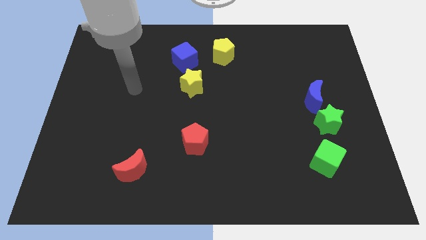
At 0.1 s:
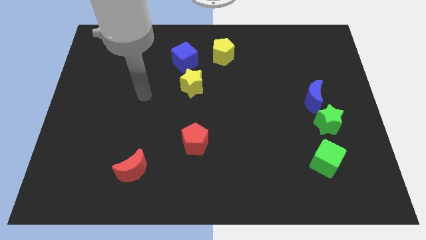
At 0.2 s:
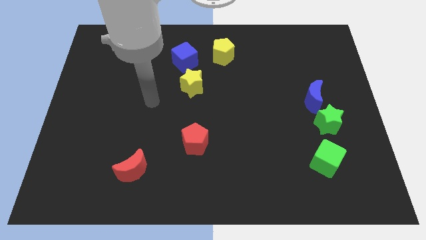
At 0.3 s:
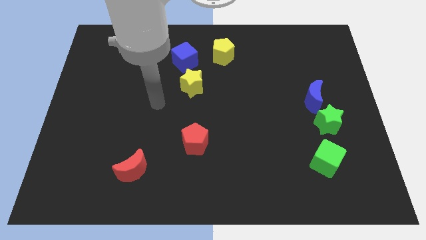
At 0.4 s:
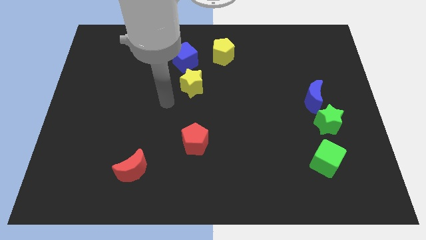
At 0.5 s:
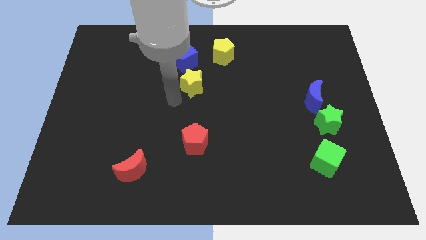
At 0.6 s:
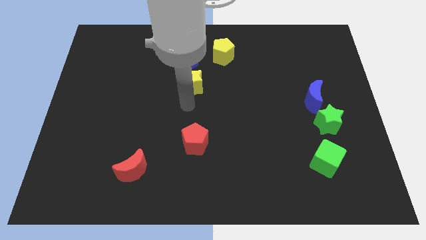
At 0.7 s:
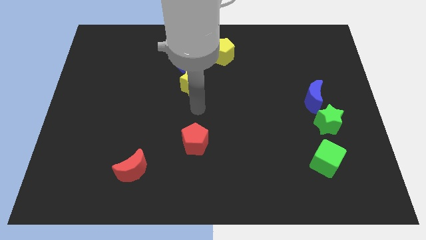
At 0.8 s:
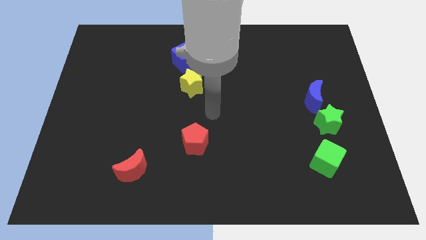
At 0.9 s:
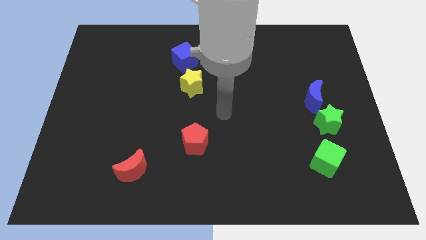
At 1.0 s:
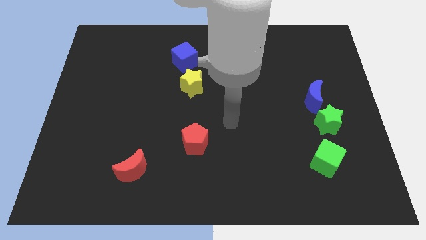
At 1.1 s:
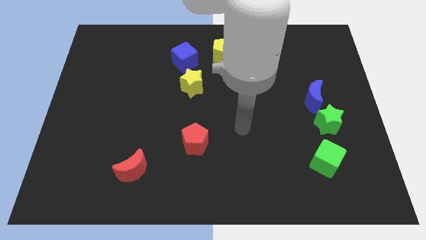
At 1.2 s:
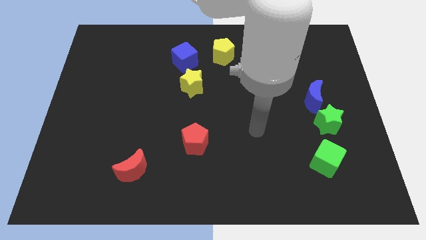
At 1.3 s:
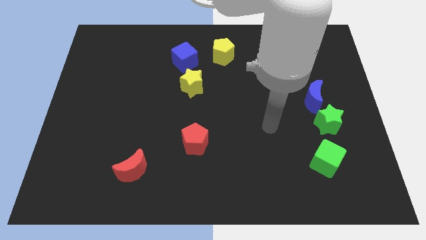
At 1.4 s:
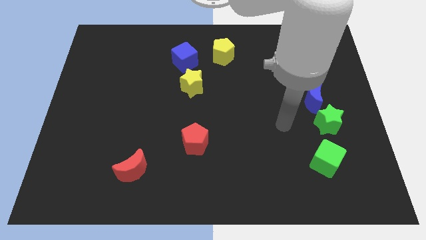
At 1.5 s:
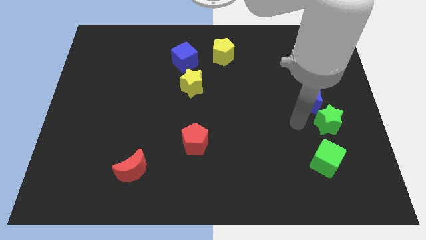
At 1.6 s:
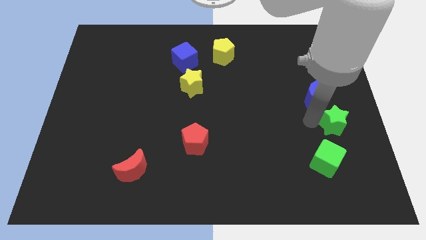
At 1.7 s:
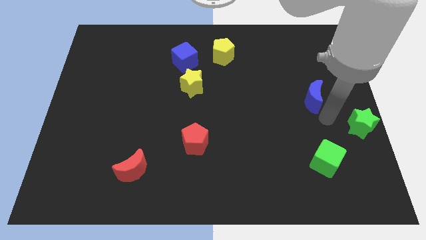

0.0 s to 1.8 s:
move the blue moon away from the green star

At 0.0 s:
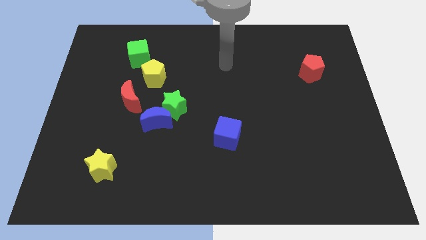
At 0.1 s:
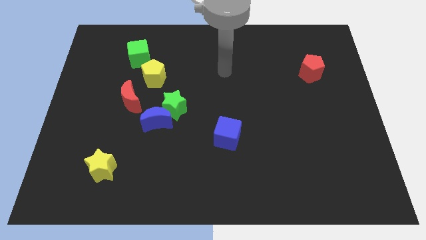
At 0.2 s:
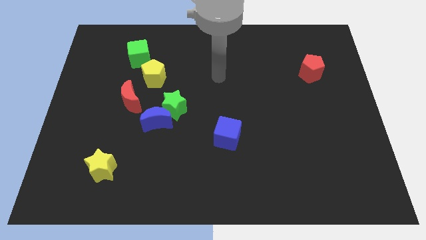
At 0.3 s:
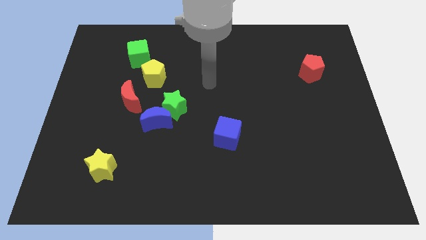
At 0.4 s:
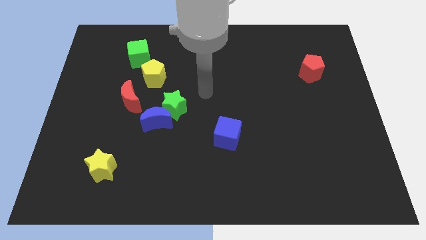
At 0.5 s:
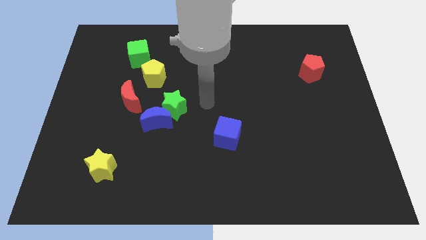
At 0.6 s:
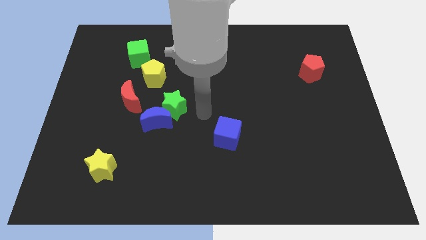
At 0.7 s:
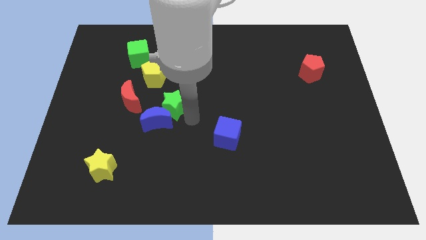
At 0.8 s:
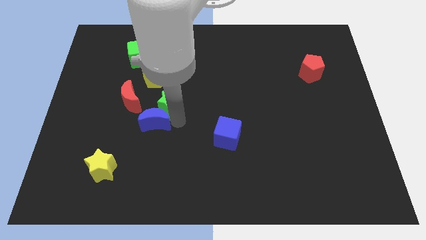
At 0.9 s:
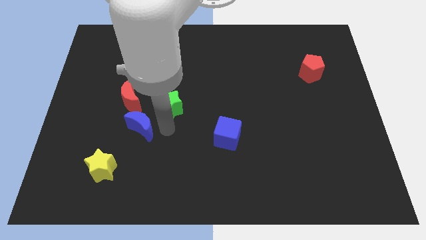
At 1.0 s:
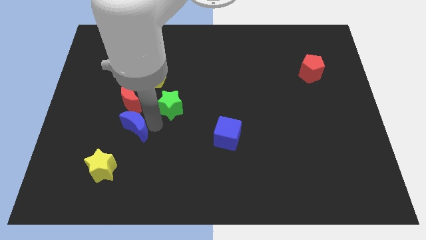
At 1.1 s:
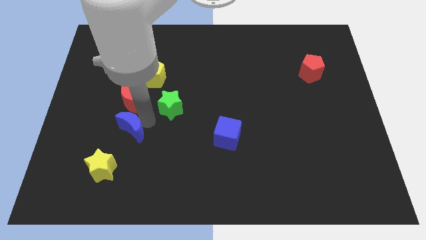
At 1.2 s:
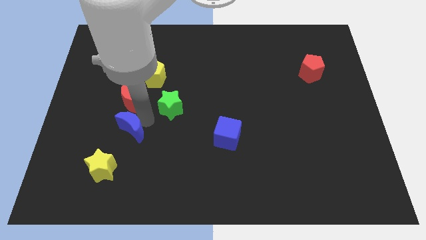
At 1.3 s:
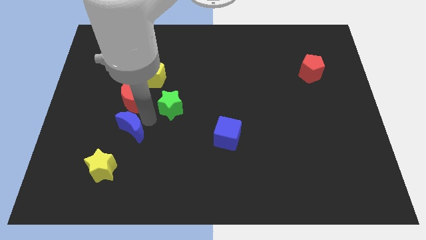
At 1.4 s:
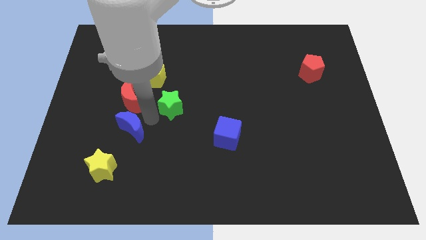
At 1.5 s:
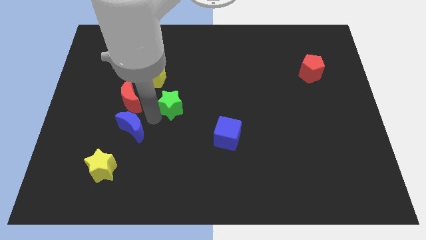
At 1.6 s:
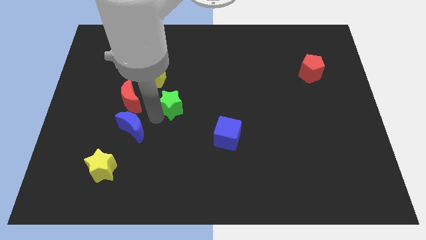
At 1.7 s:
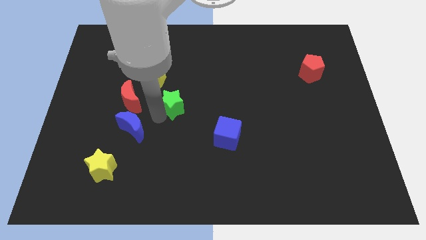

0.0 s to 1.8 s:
pull the green star apart from the blue moon

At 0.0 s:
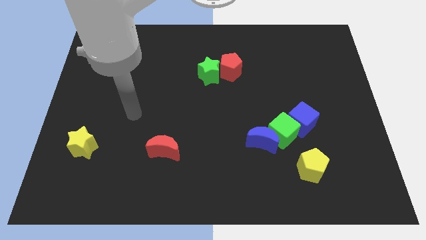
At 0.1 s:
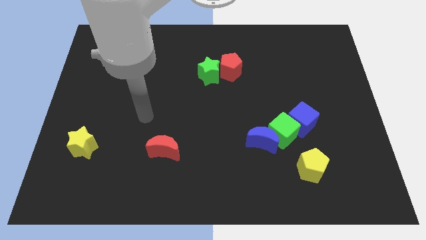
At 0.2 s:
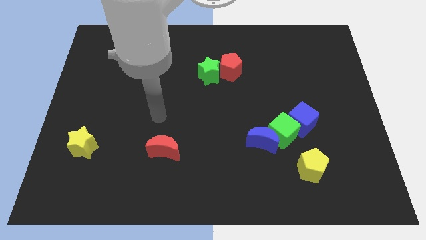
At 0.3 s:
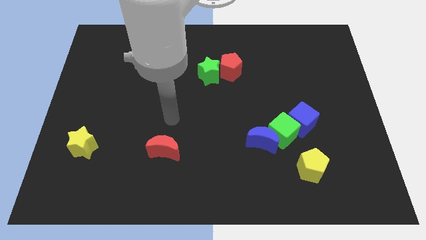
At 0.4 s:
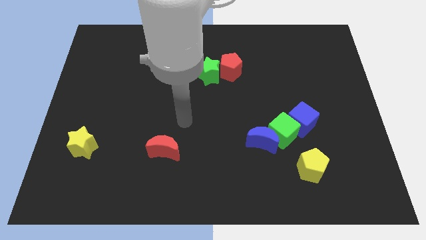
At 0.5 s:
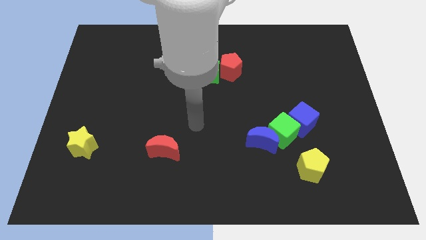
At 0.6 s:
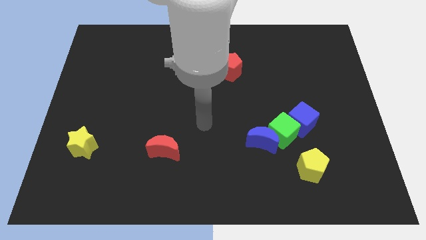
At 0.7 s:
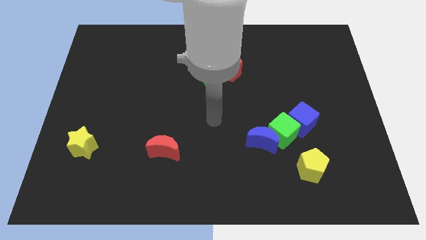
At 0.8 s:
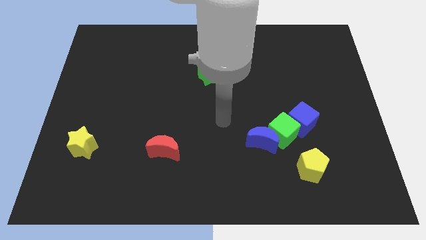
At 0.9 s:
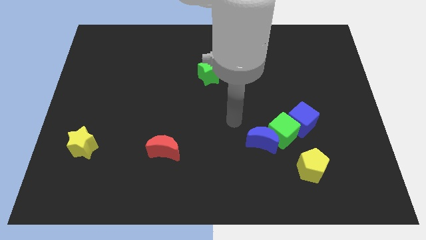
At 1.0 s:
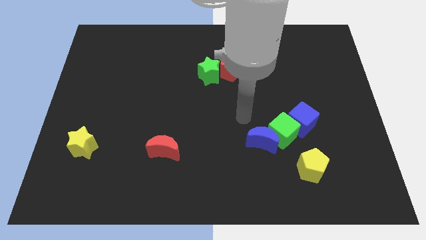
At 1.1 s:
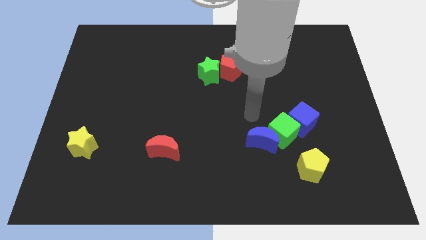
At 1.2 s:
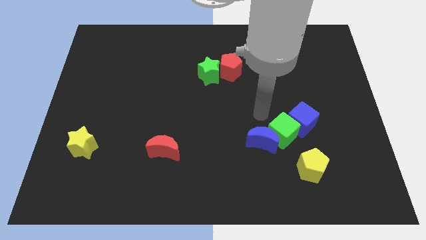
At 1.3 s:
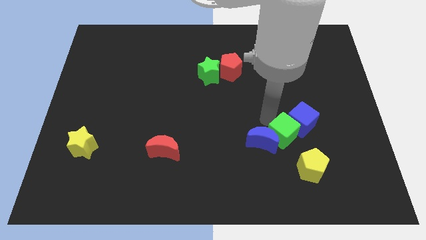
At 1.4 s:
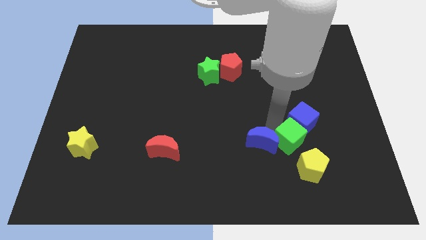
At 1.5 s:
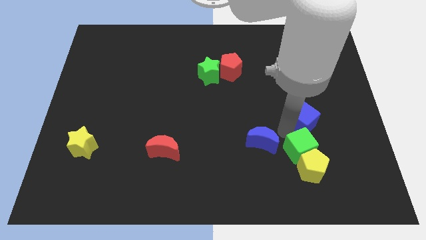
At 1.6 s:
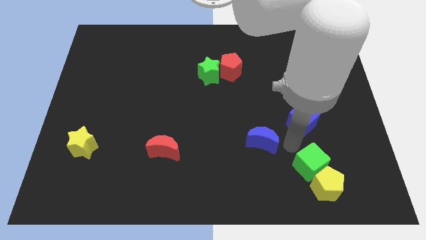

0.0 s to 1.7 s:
separate the blue moon from the green cube

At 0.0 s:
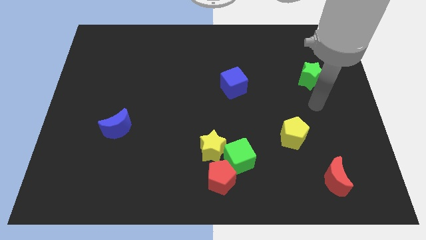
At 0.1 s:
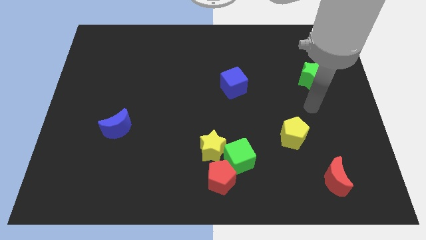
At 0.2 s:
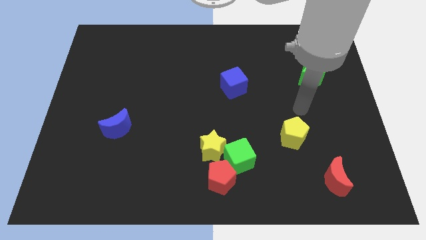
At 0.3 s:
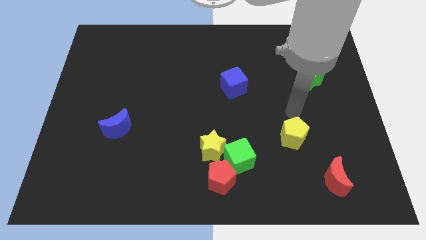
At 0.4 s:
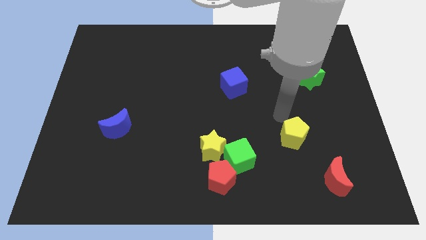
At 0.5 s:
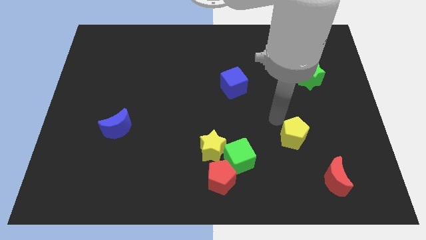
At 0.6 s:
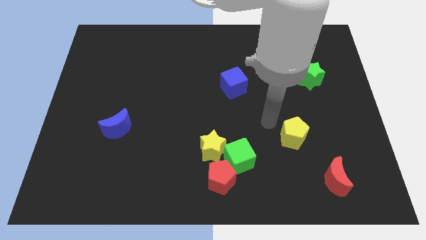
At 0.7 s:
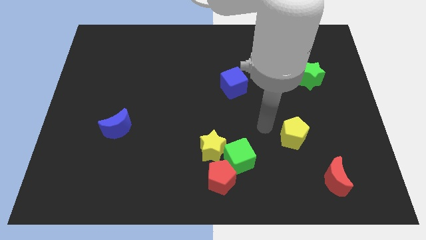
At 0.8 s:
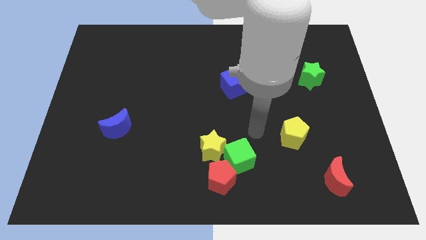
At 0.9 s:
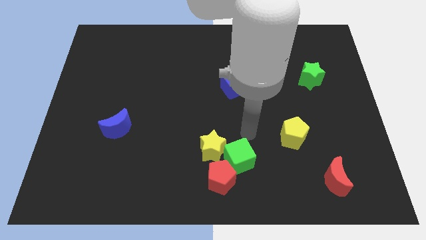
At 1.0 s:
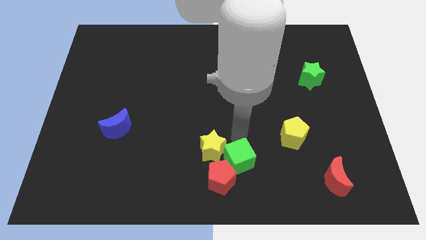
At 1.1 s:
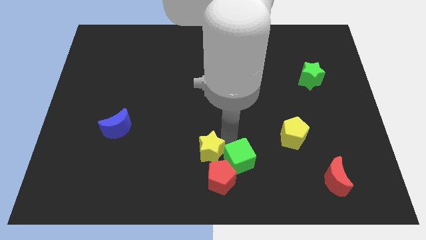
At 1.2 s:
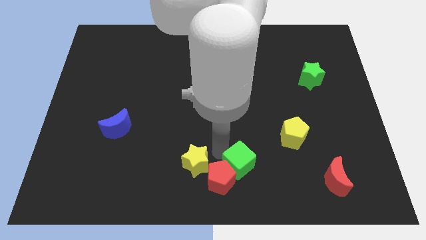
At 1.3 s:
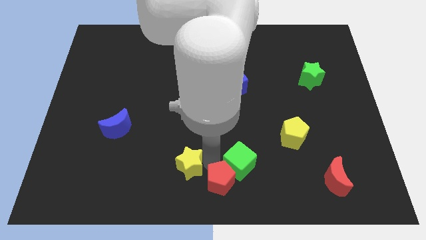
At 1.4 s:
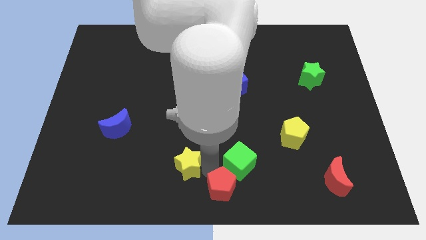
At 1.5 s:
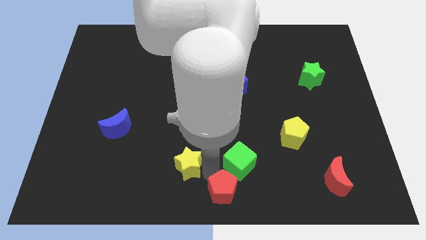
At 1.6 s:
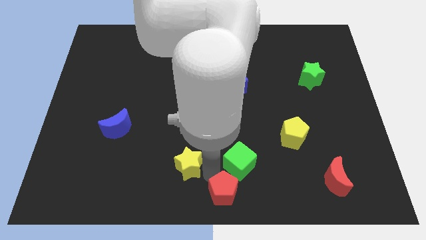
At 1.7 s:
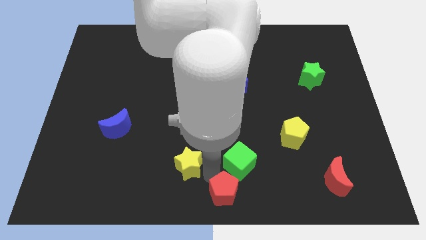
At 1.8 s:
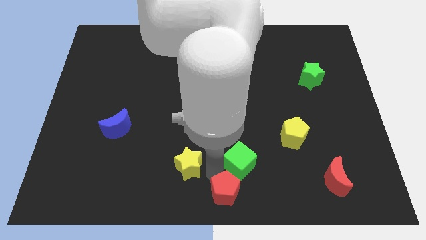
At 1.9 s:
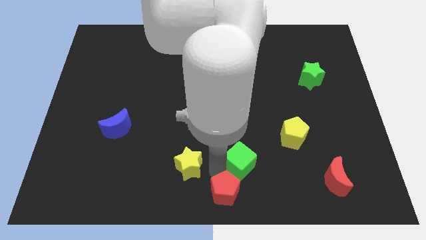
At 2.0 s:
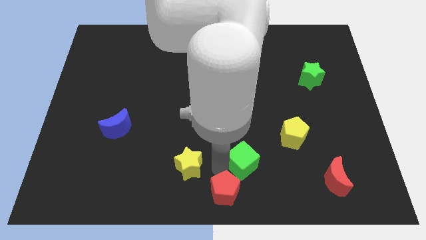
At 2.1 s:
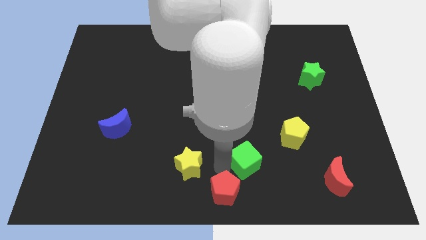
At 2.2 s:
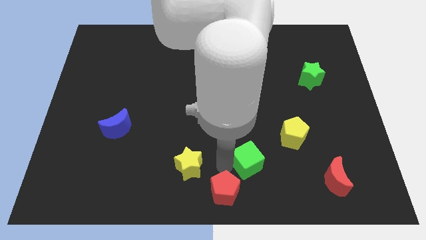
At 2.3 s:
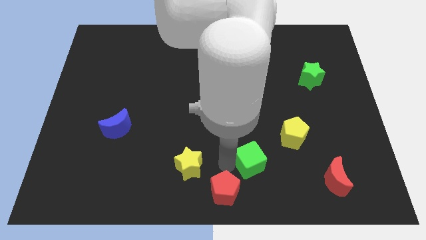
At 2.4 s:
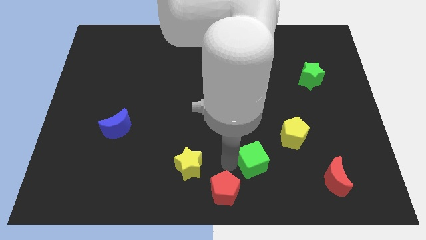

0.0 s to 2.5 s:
move the green cube away from the red pentagon and yellow star

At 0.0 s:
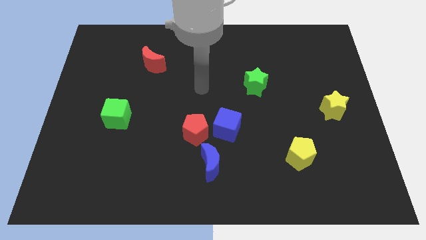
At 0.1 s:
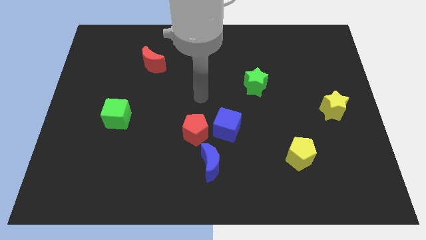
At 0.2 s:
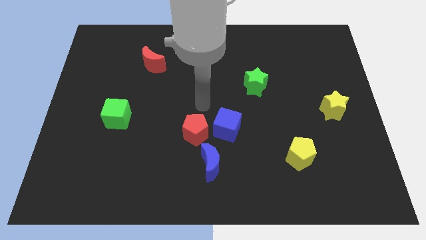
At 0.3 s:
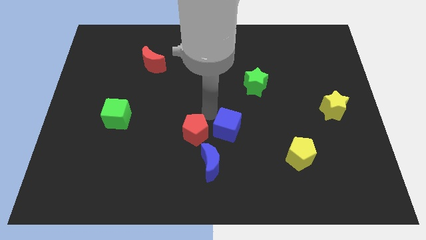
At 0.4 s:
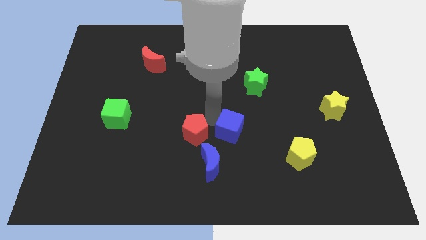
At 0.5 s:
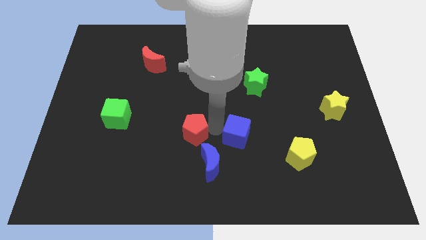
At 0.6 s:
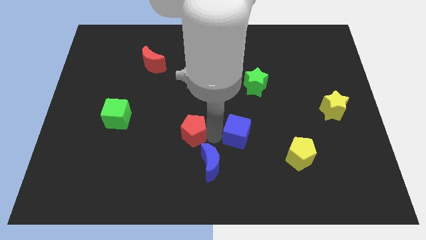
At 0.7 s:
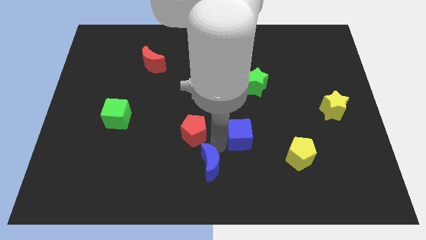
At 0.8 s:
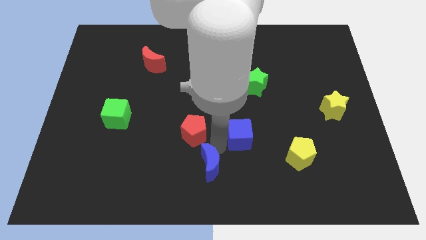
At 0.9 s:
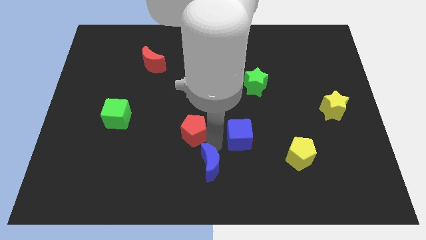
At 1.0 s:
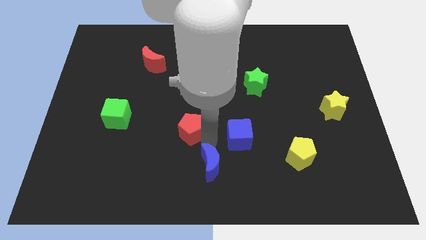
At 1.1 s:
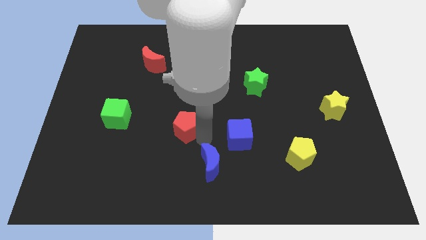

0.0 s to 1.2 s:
separate the red pentagon from the blue cube and blue moon

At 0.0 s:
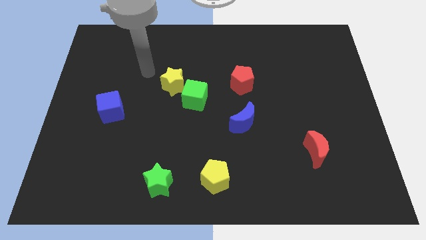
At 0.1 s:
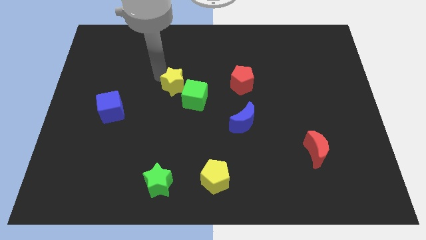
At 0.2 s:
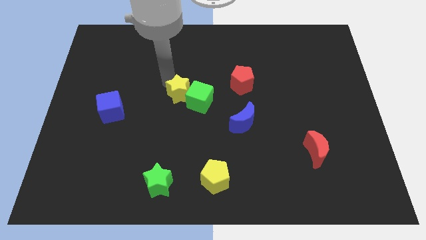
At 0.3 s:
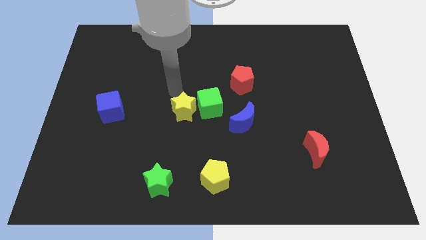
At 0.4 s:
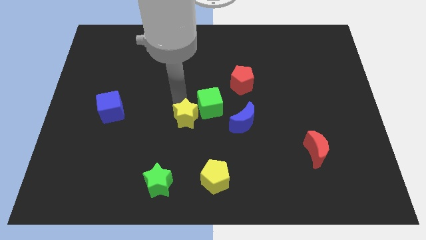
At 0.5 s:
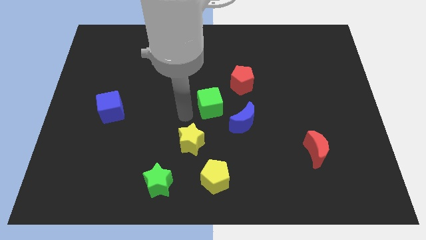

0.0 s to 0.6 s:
move the green cube away from the yellow star
